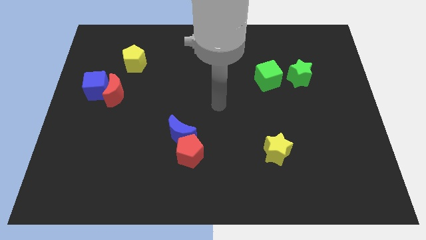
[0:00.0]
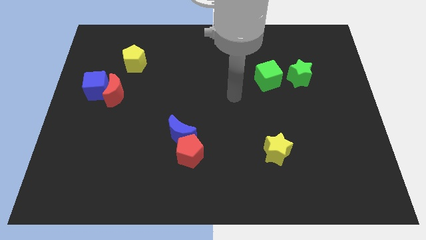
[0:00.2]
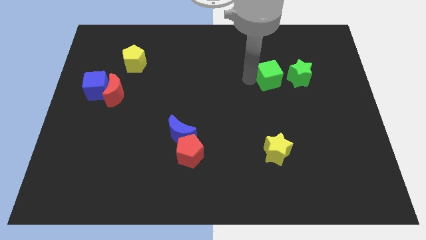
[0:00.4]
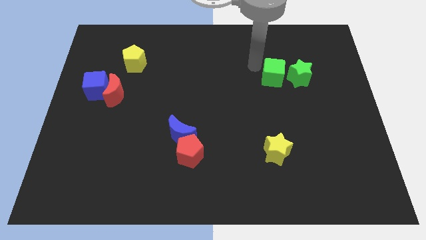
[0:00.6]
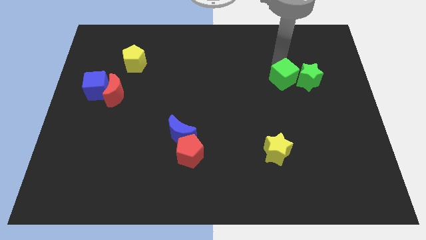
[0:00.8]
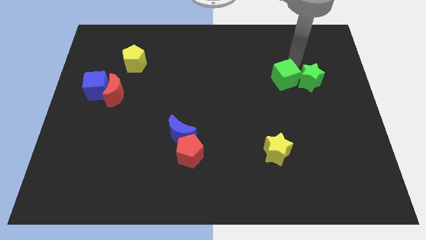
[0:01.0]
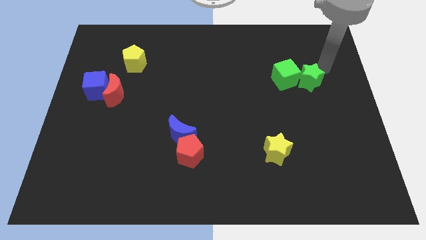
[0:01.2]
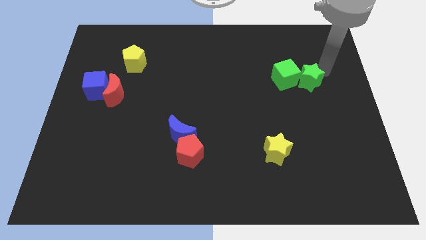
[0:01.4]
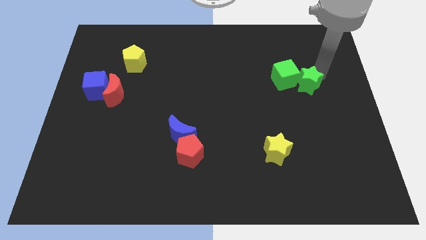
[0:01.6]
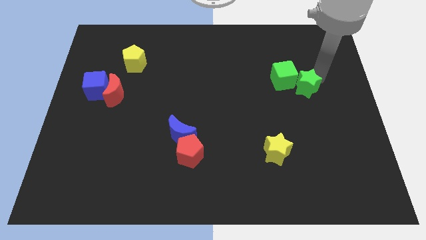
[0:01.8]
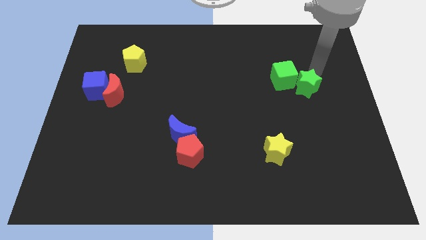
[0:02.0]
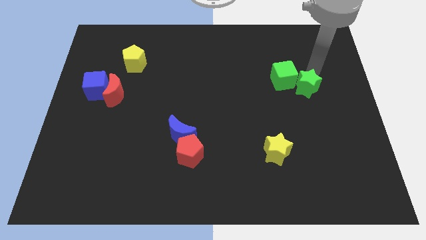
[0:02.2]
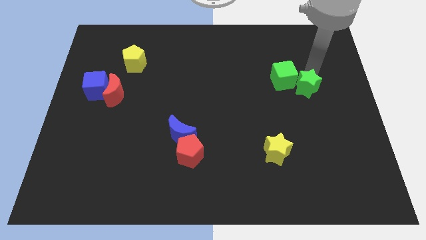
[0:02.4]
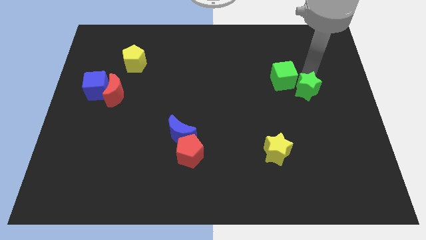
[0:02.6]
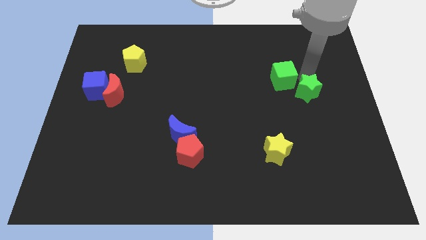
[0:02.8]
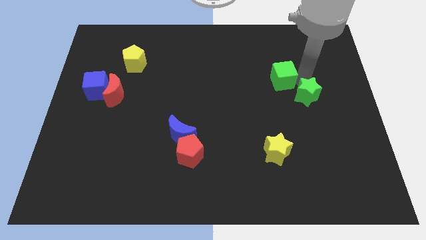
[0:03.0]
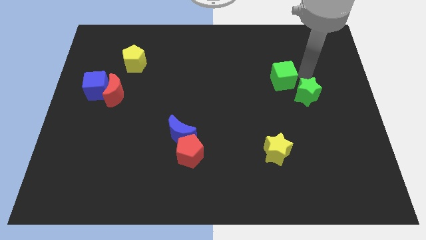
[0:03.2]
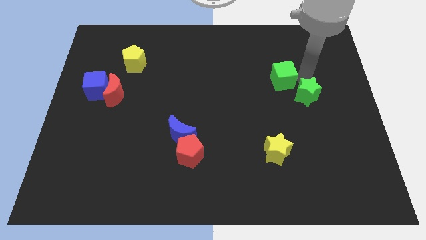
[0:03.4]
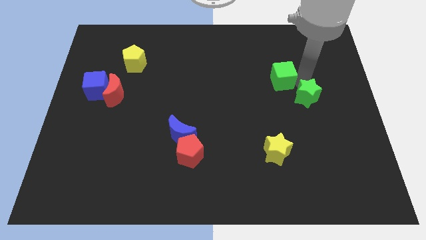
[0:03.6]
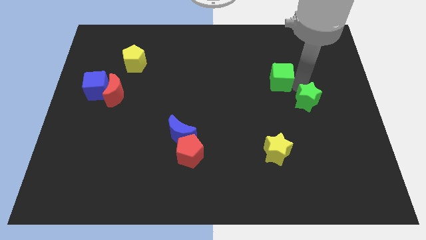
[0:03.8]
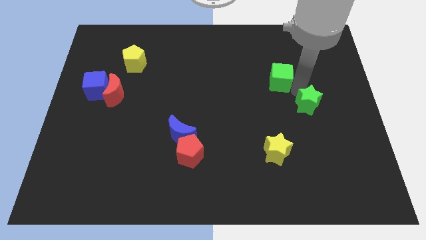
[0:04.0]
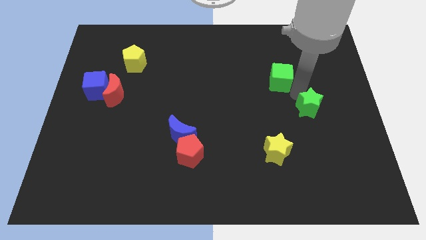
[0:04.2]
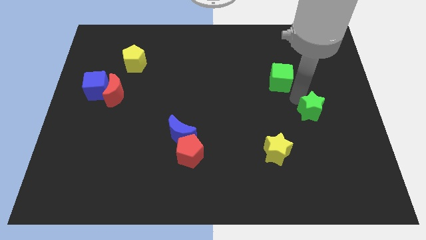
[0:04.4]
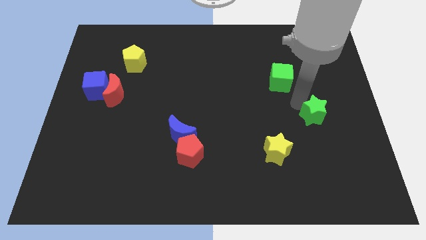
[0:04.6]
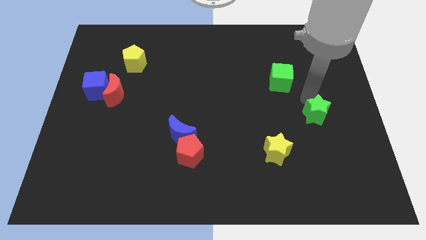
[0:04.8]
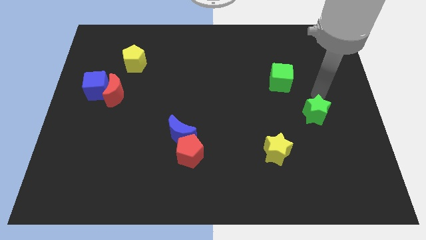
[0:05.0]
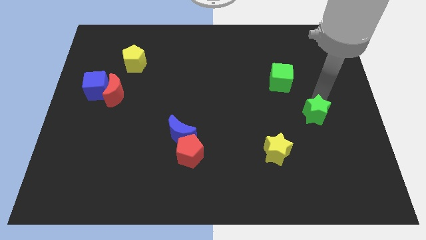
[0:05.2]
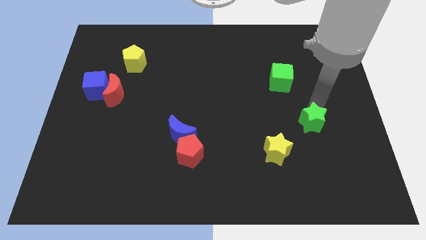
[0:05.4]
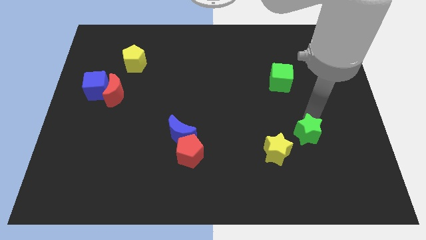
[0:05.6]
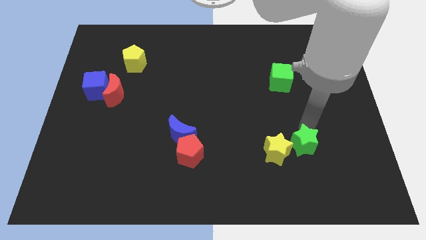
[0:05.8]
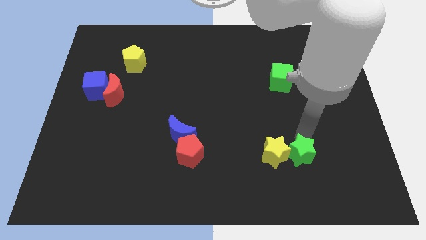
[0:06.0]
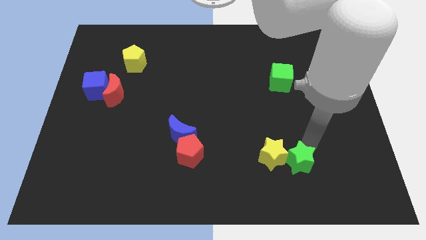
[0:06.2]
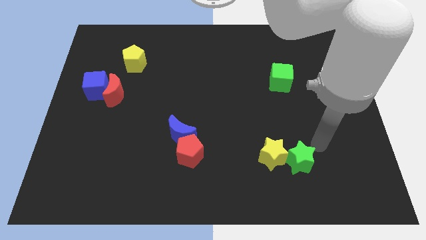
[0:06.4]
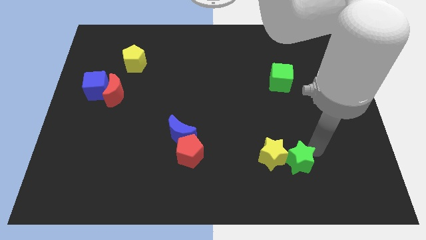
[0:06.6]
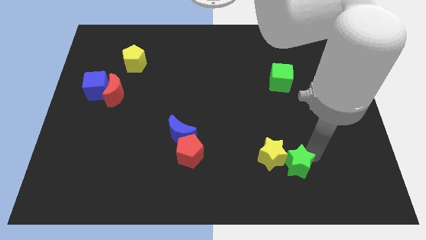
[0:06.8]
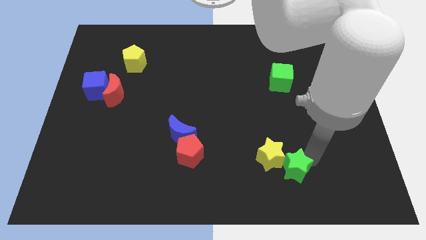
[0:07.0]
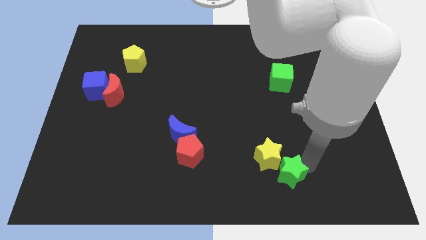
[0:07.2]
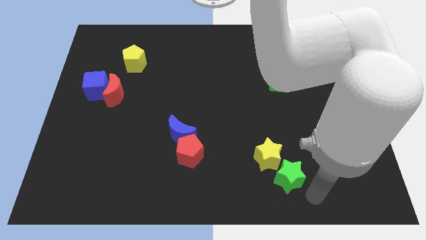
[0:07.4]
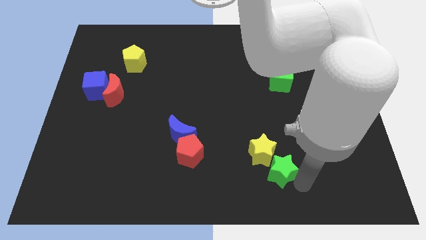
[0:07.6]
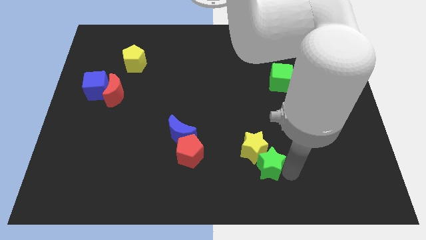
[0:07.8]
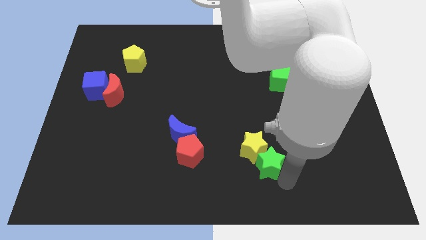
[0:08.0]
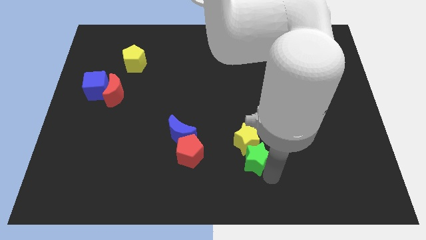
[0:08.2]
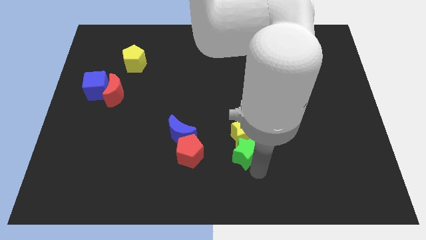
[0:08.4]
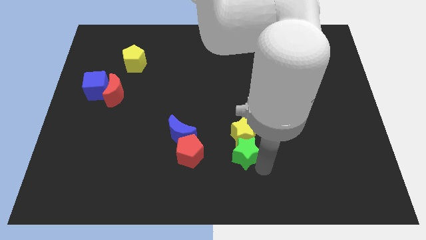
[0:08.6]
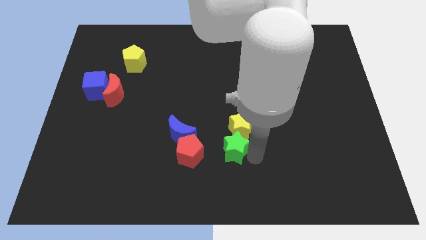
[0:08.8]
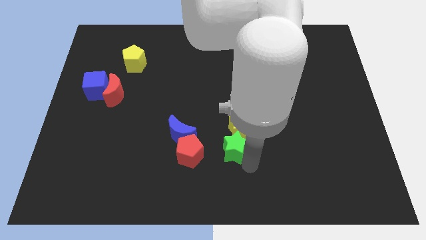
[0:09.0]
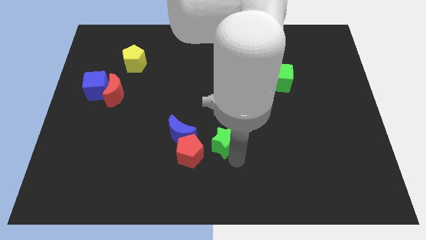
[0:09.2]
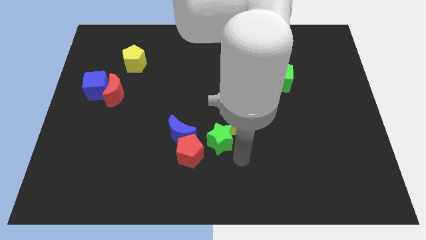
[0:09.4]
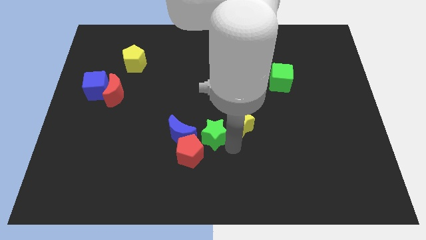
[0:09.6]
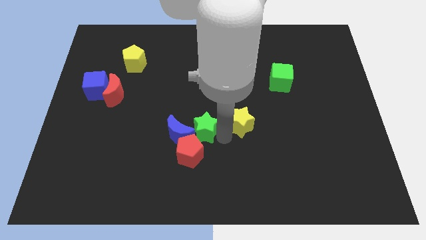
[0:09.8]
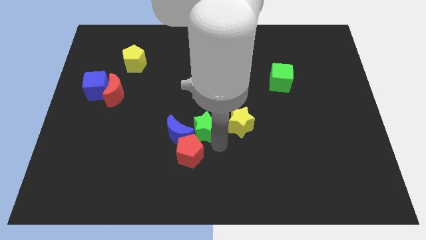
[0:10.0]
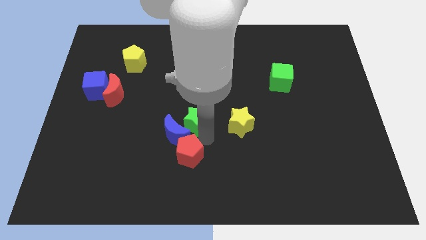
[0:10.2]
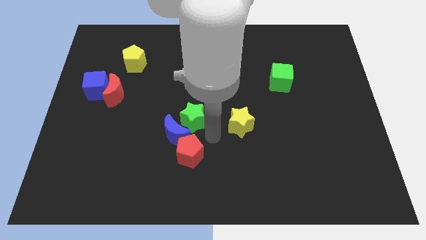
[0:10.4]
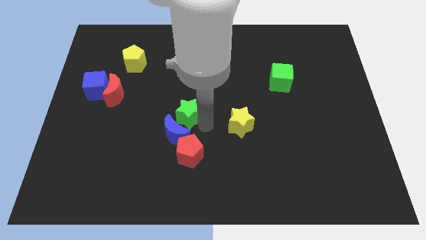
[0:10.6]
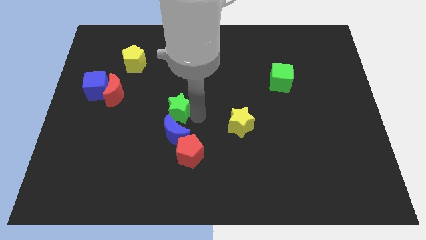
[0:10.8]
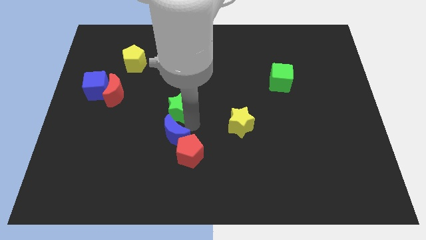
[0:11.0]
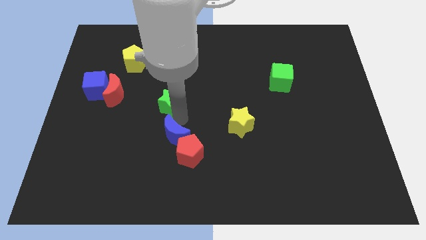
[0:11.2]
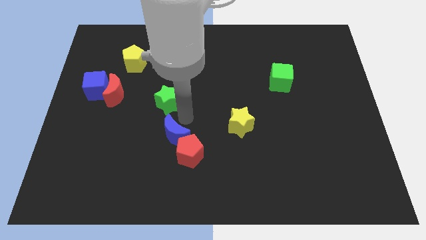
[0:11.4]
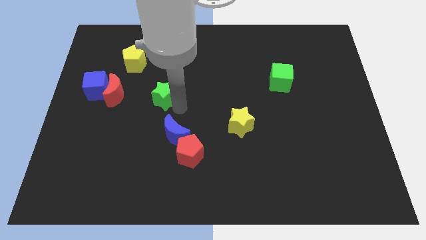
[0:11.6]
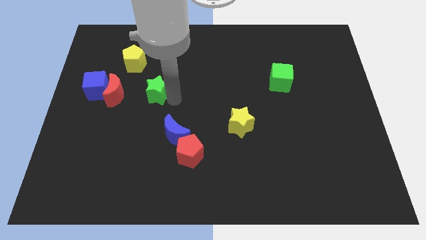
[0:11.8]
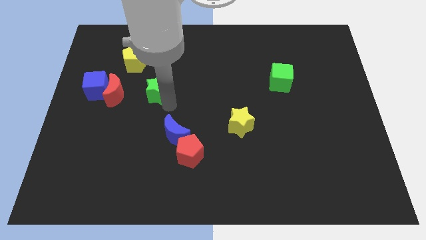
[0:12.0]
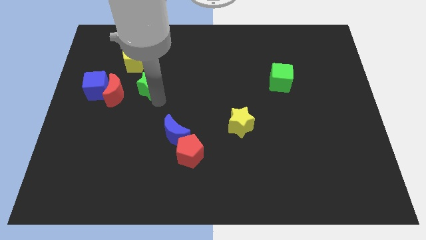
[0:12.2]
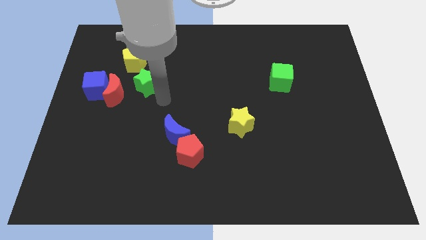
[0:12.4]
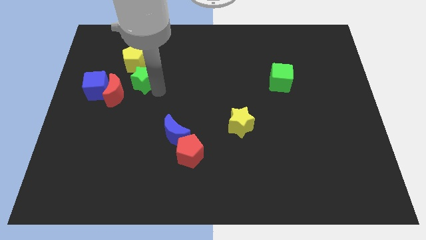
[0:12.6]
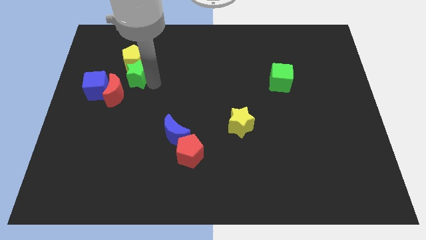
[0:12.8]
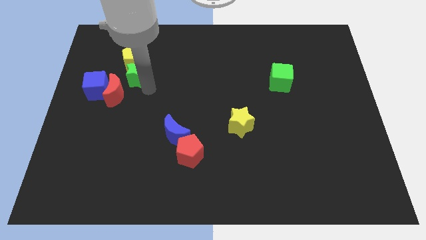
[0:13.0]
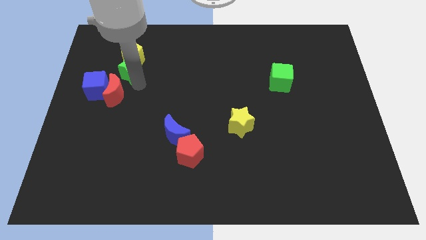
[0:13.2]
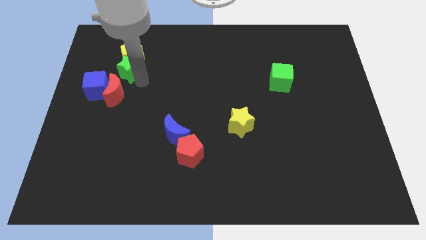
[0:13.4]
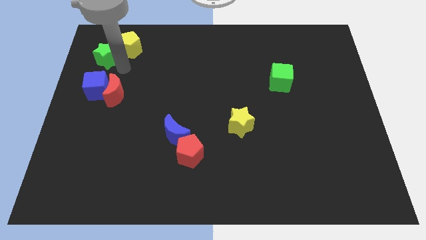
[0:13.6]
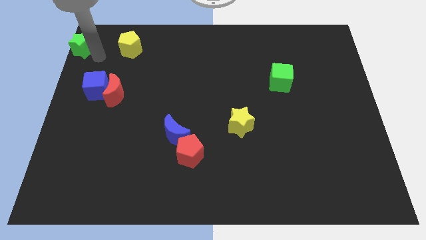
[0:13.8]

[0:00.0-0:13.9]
slide the green star to the top left of the board
